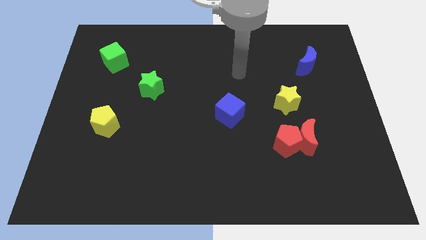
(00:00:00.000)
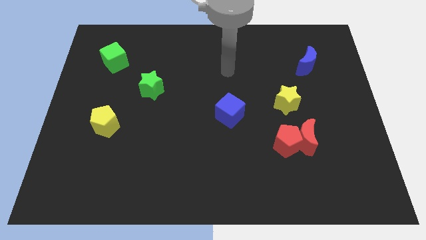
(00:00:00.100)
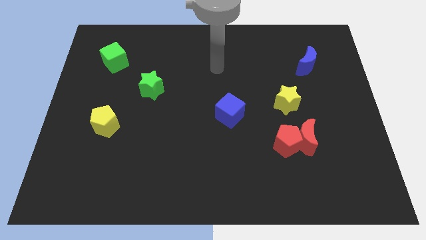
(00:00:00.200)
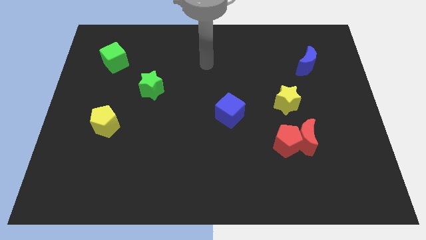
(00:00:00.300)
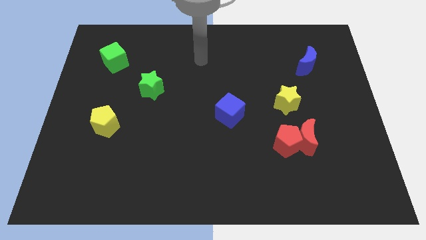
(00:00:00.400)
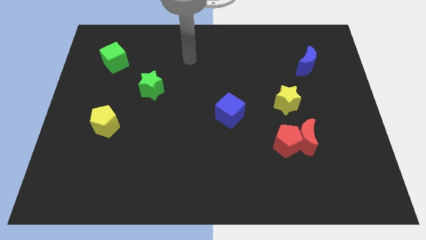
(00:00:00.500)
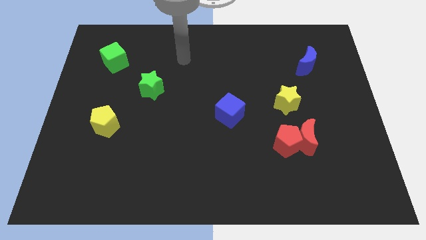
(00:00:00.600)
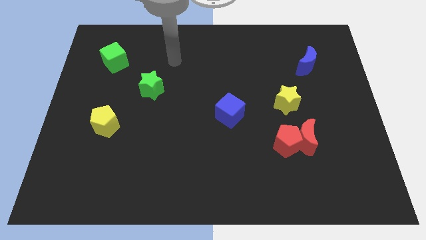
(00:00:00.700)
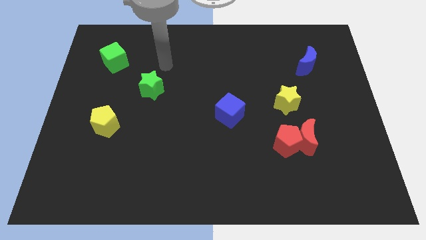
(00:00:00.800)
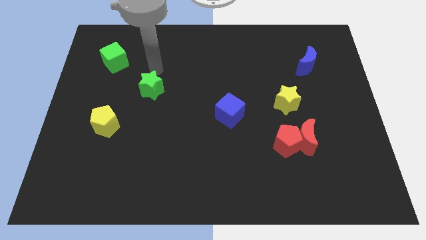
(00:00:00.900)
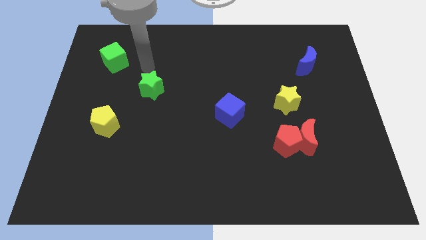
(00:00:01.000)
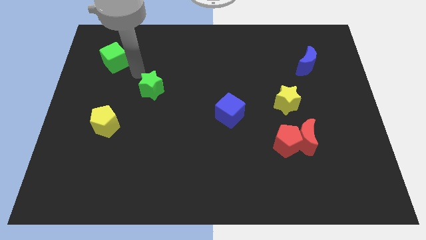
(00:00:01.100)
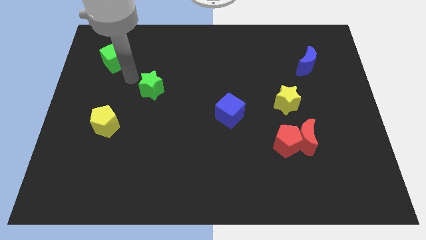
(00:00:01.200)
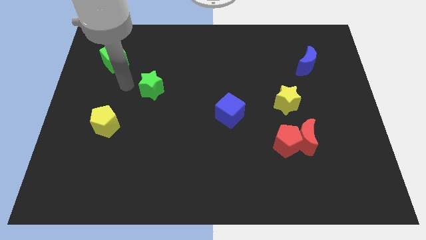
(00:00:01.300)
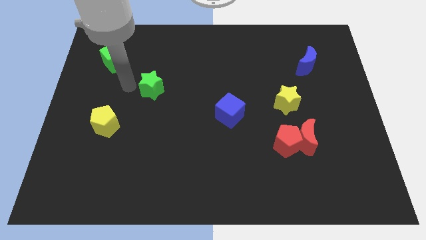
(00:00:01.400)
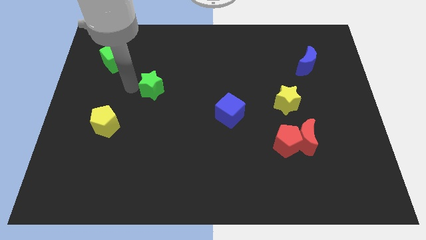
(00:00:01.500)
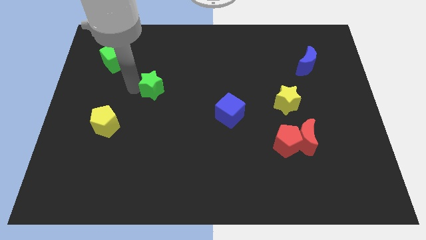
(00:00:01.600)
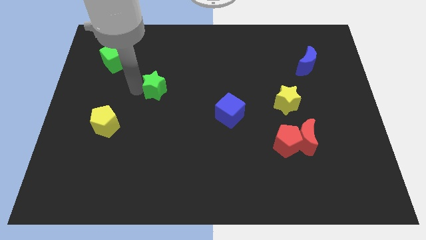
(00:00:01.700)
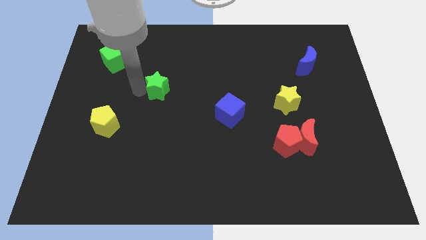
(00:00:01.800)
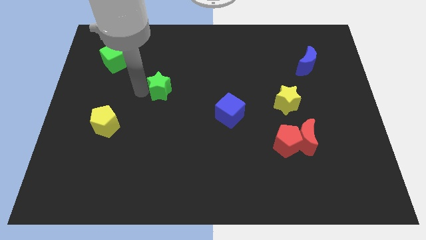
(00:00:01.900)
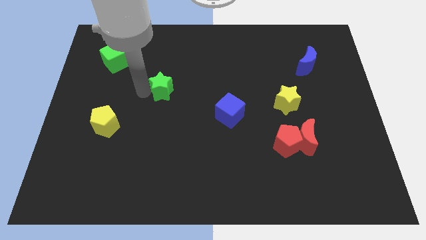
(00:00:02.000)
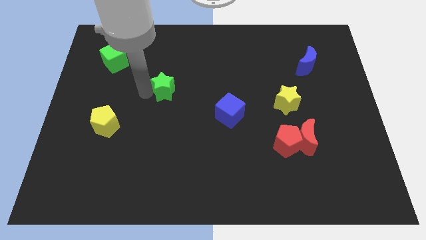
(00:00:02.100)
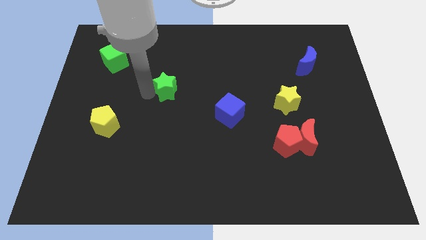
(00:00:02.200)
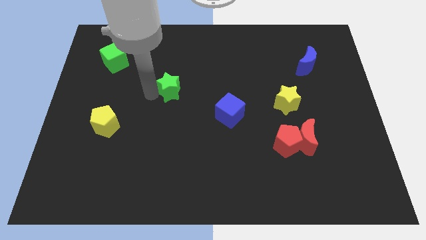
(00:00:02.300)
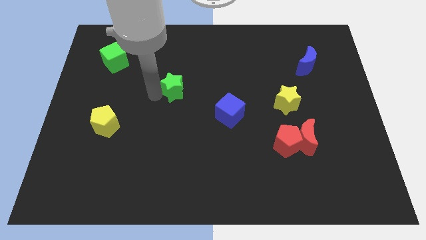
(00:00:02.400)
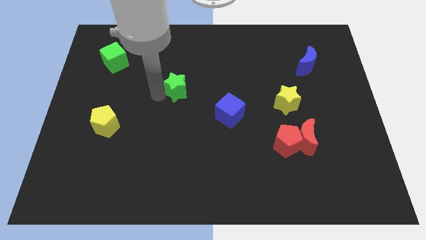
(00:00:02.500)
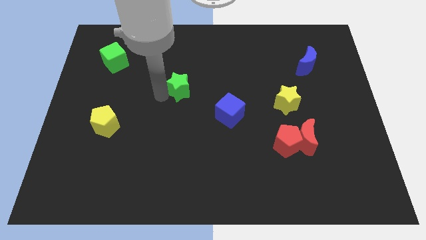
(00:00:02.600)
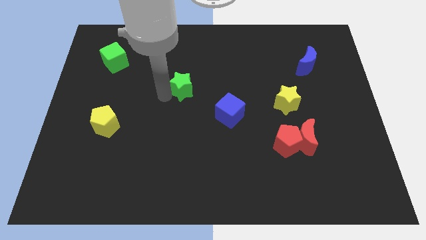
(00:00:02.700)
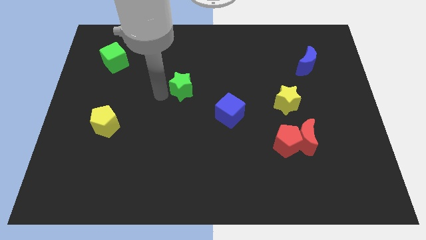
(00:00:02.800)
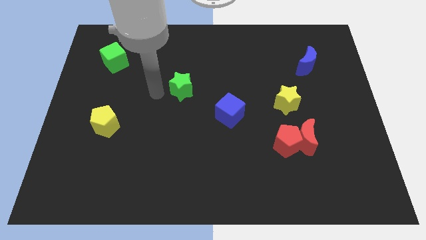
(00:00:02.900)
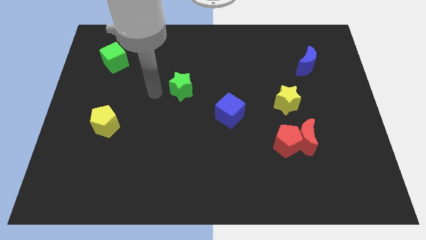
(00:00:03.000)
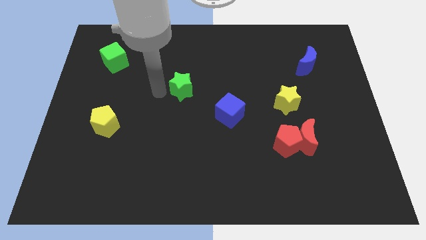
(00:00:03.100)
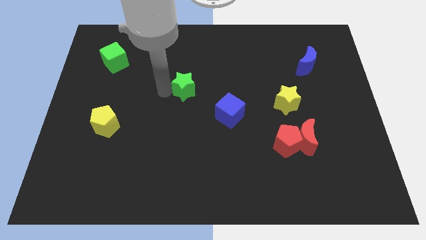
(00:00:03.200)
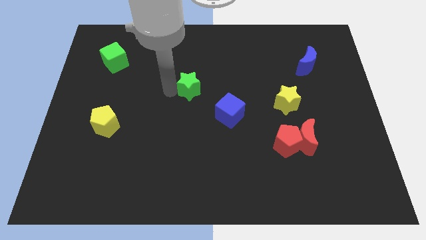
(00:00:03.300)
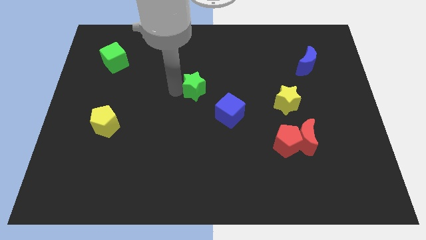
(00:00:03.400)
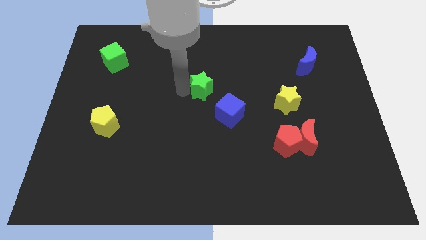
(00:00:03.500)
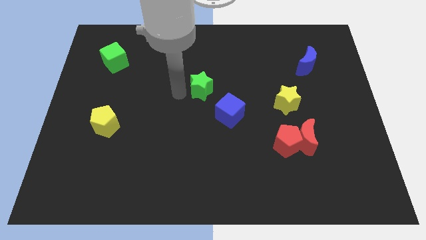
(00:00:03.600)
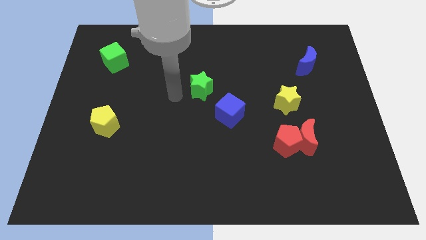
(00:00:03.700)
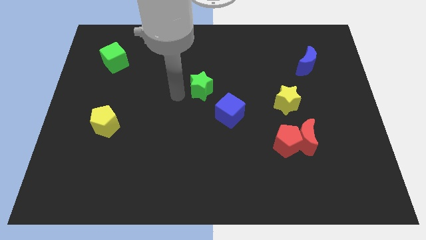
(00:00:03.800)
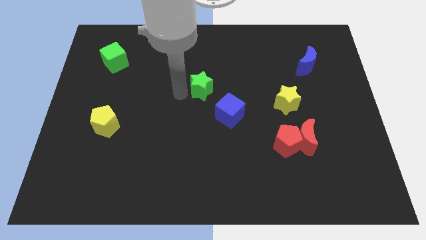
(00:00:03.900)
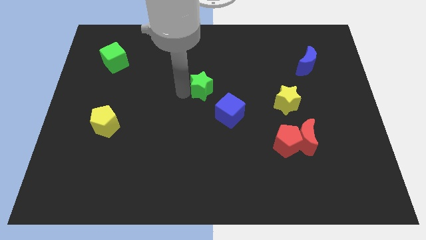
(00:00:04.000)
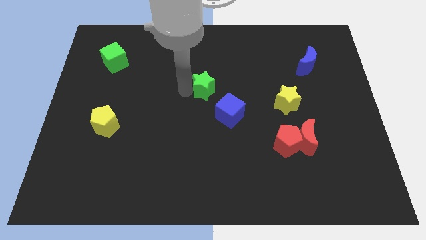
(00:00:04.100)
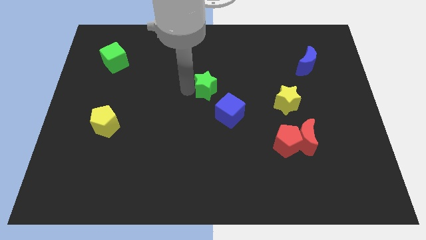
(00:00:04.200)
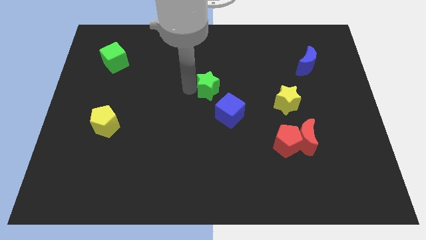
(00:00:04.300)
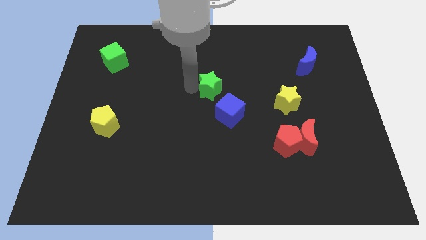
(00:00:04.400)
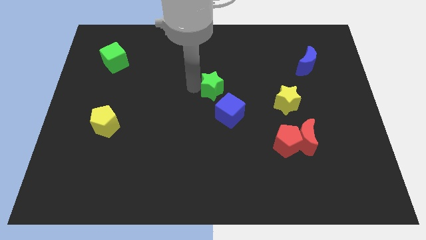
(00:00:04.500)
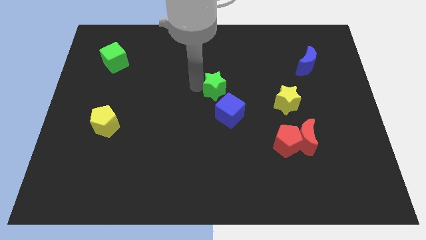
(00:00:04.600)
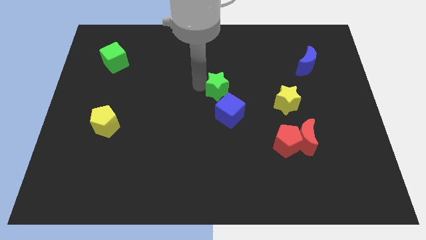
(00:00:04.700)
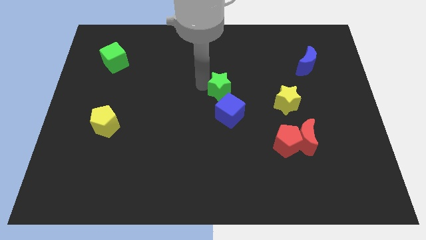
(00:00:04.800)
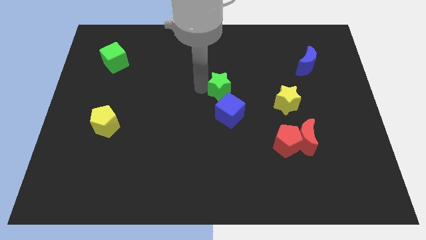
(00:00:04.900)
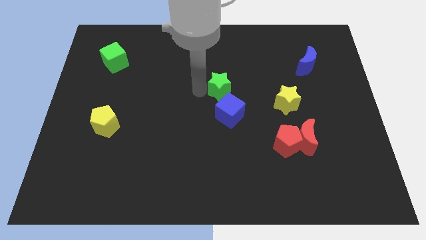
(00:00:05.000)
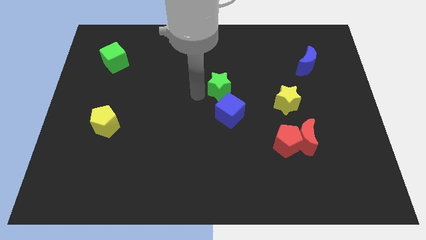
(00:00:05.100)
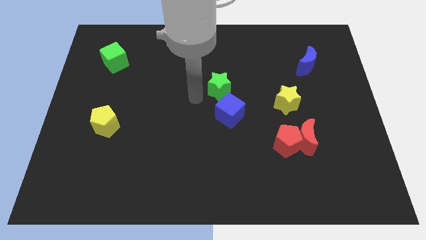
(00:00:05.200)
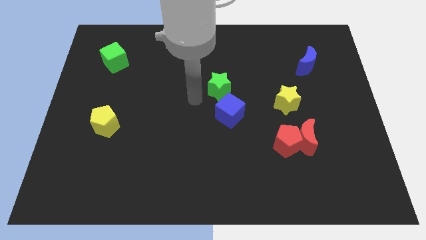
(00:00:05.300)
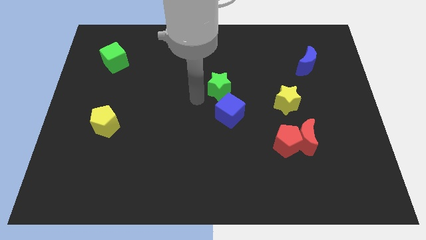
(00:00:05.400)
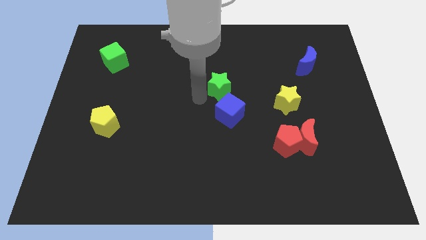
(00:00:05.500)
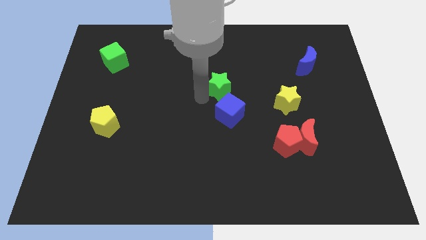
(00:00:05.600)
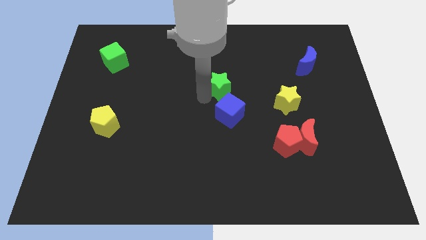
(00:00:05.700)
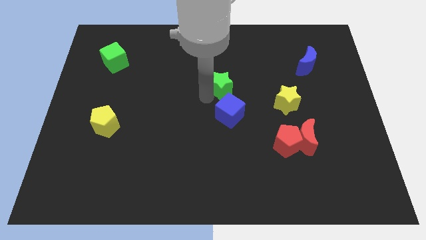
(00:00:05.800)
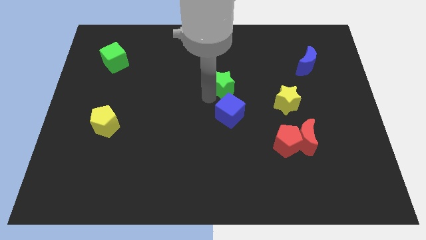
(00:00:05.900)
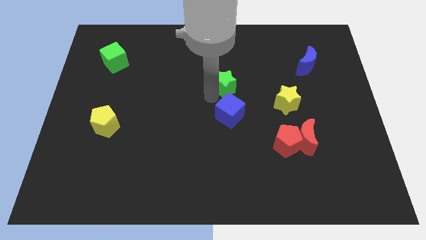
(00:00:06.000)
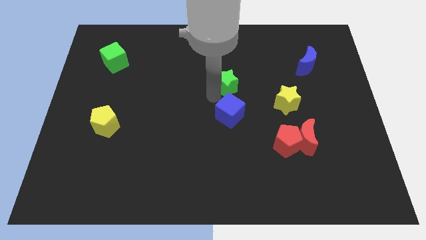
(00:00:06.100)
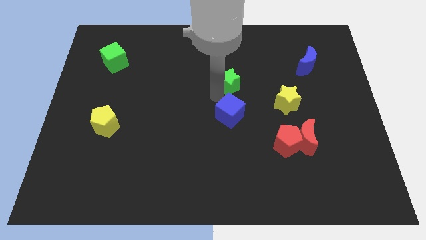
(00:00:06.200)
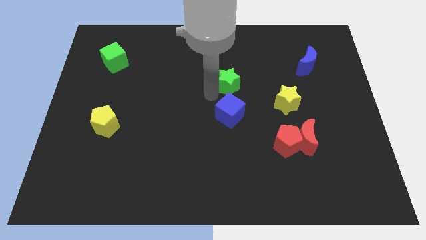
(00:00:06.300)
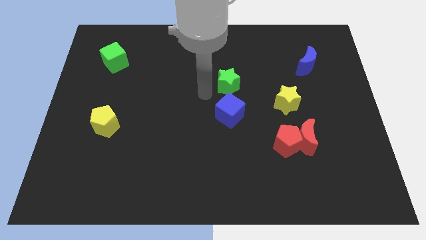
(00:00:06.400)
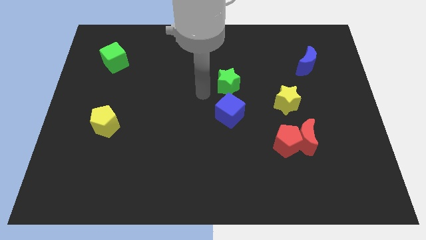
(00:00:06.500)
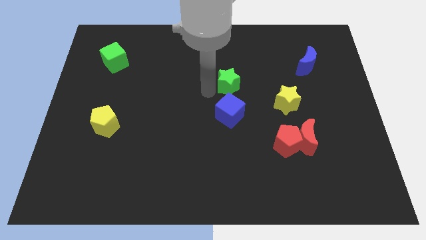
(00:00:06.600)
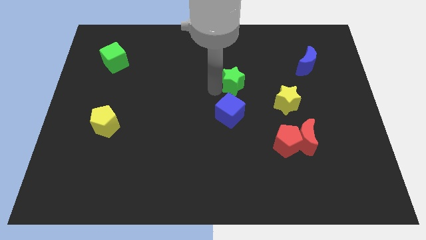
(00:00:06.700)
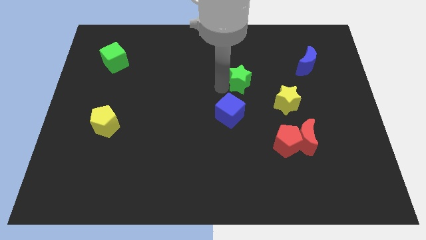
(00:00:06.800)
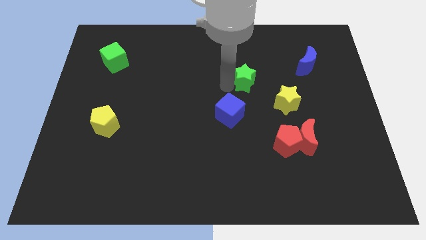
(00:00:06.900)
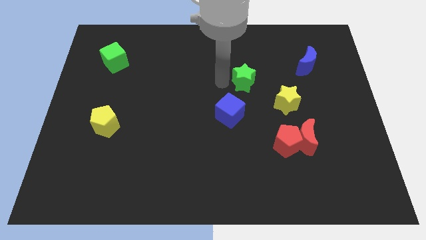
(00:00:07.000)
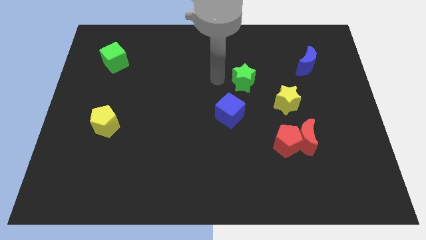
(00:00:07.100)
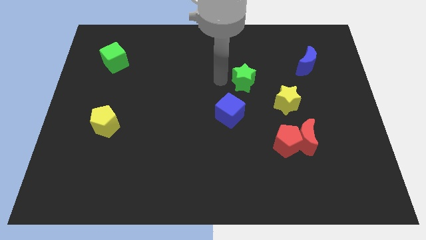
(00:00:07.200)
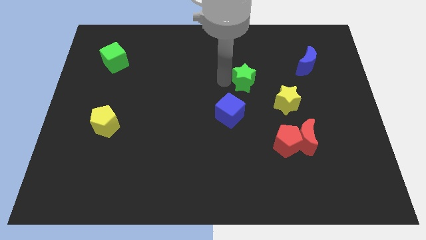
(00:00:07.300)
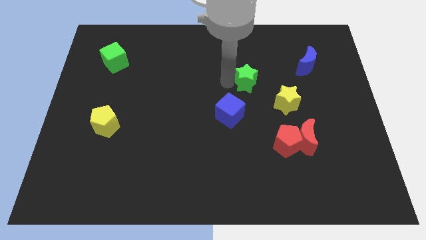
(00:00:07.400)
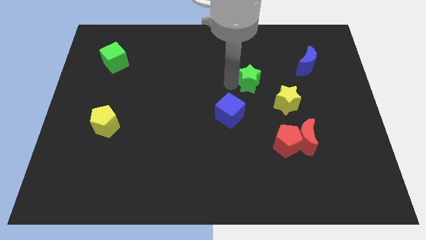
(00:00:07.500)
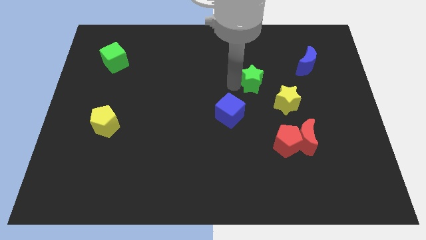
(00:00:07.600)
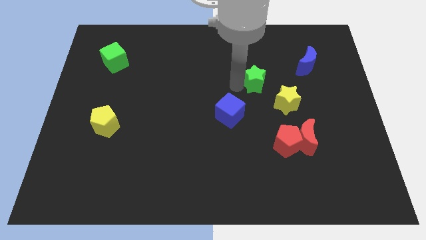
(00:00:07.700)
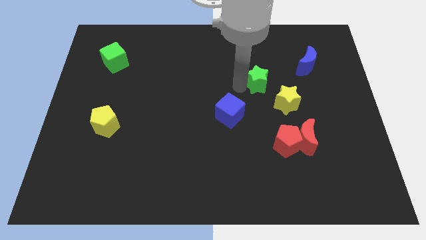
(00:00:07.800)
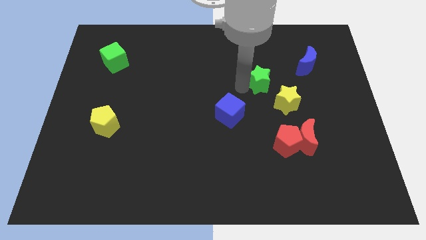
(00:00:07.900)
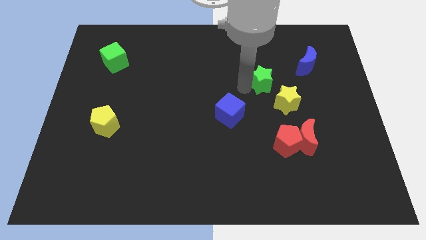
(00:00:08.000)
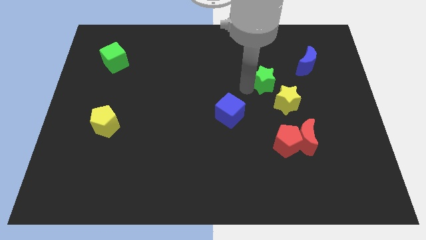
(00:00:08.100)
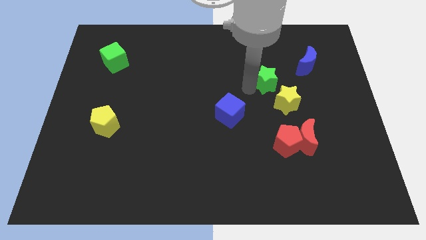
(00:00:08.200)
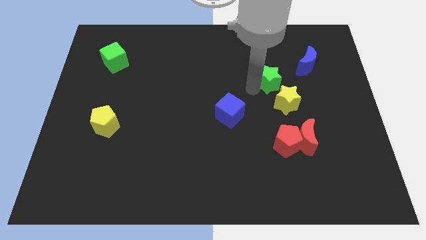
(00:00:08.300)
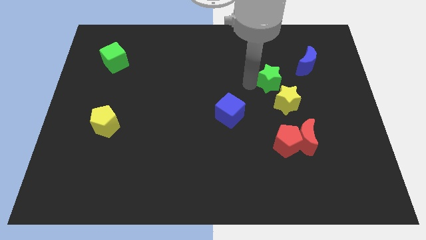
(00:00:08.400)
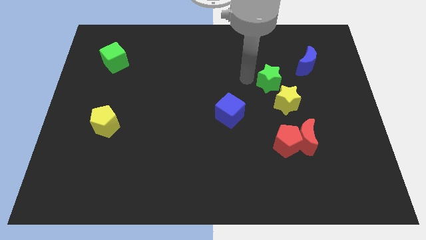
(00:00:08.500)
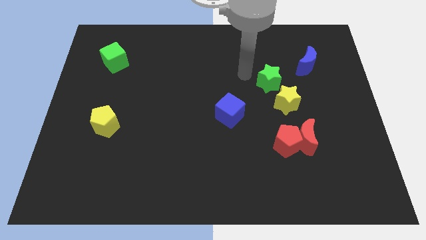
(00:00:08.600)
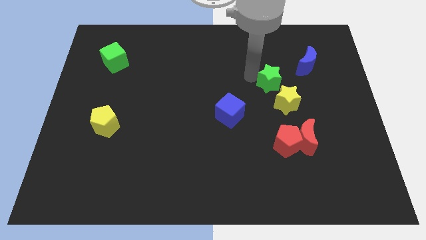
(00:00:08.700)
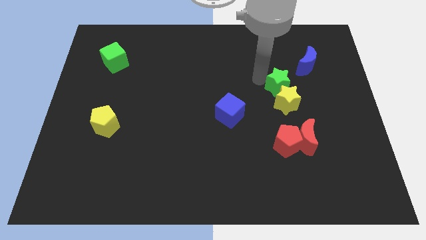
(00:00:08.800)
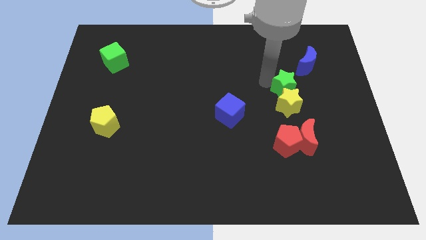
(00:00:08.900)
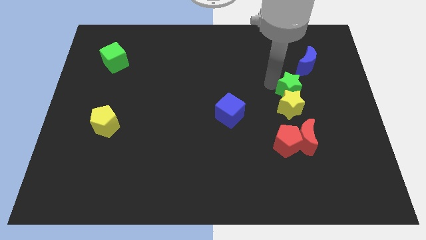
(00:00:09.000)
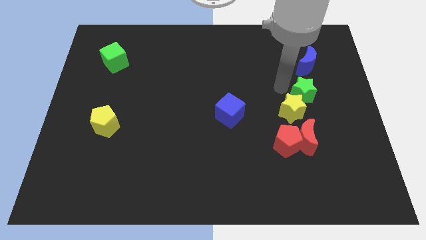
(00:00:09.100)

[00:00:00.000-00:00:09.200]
put the green star just right of the yellow star
